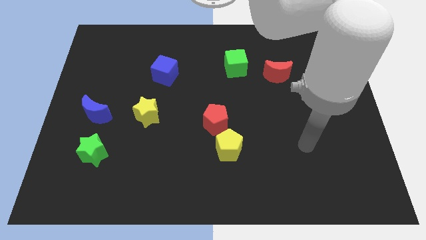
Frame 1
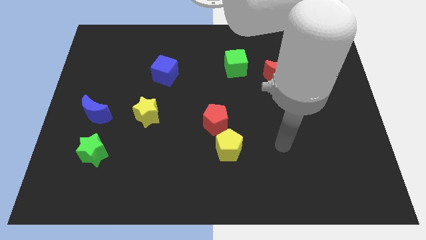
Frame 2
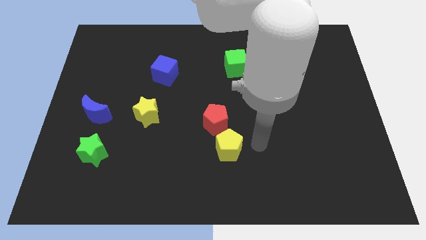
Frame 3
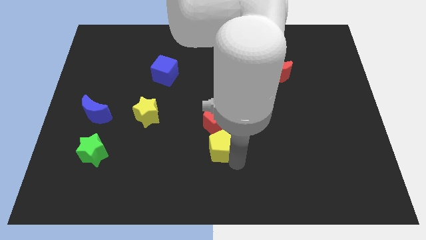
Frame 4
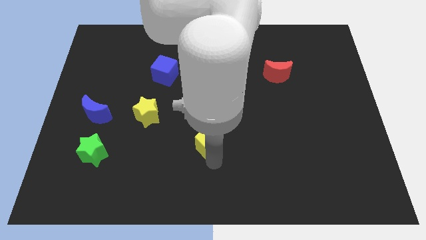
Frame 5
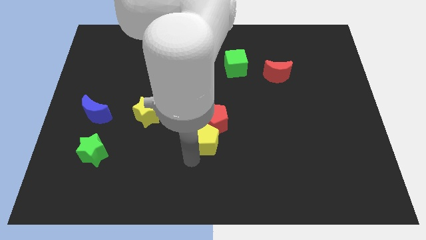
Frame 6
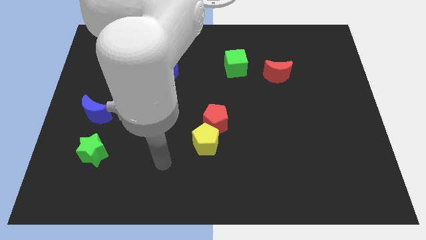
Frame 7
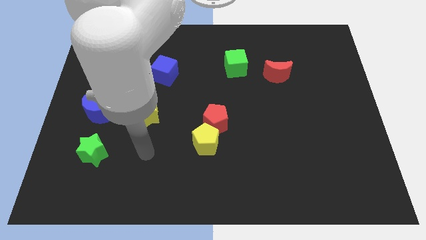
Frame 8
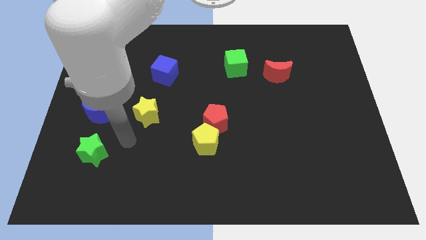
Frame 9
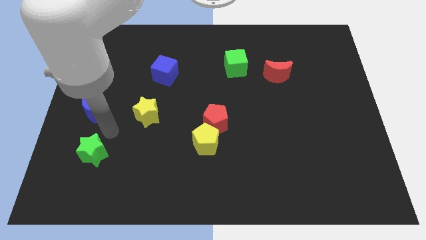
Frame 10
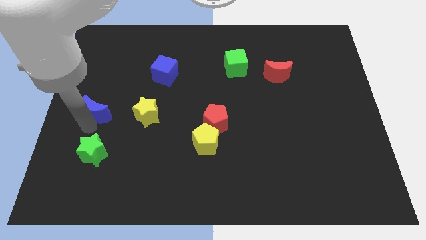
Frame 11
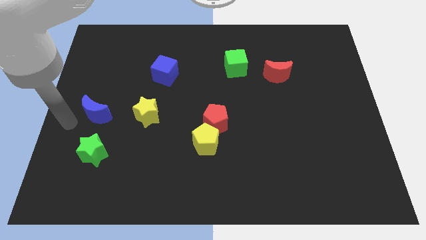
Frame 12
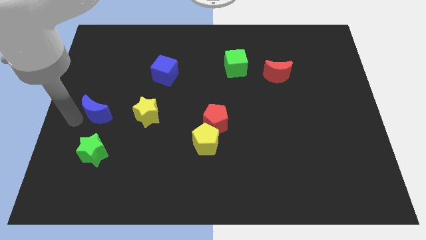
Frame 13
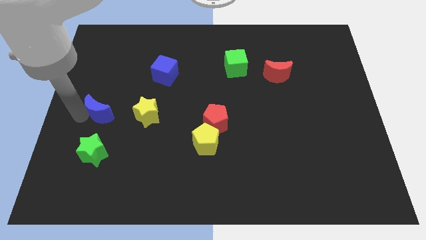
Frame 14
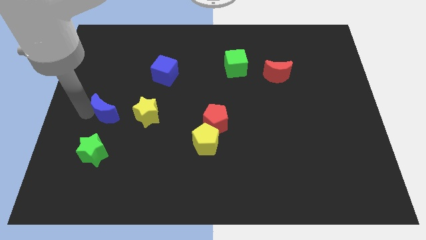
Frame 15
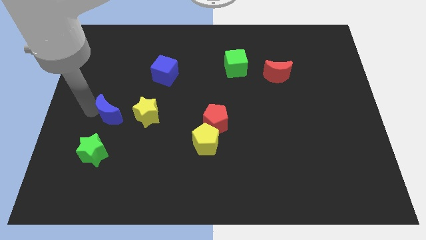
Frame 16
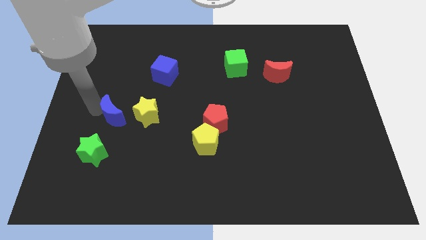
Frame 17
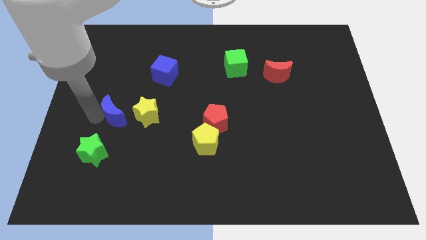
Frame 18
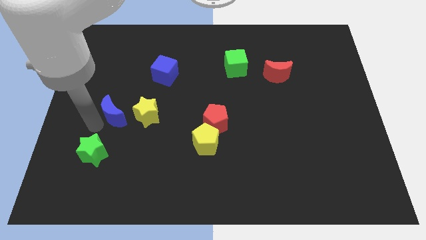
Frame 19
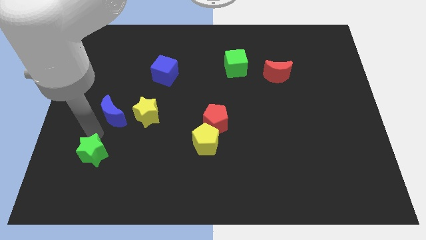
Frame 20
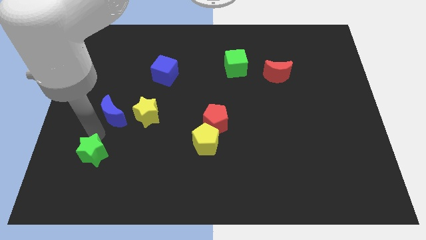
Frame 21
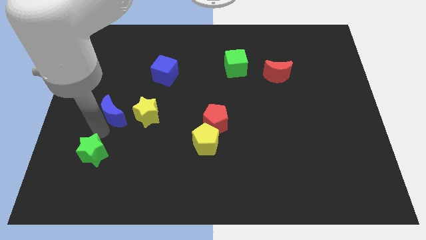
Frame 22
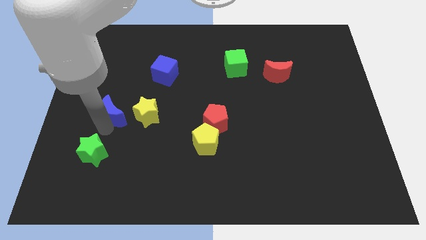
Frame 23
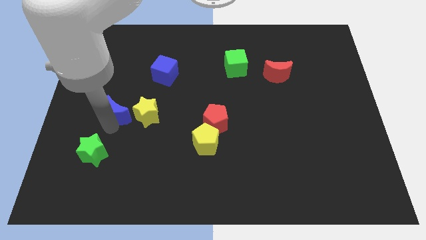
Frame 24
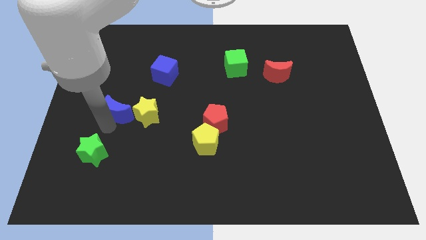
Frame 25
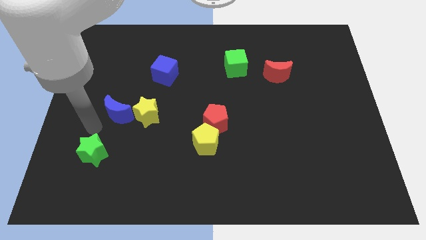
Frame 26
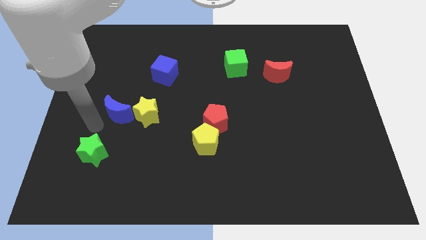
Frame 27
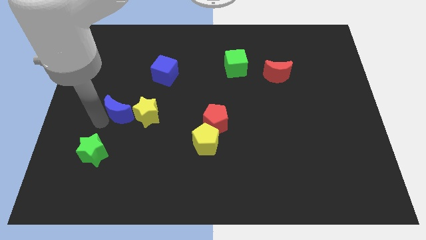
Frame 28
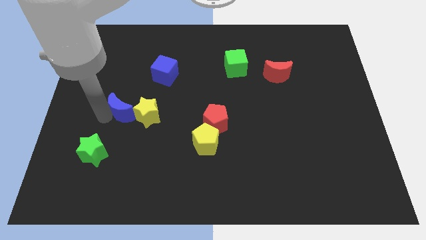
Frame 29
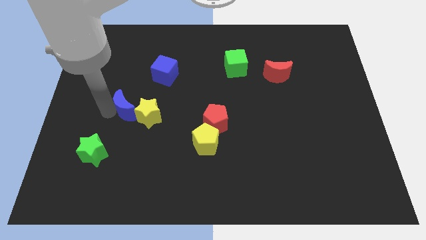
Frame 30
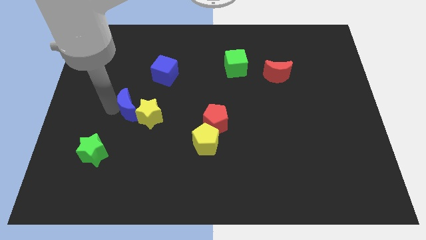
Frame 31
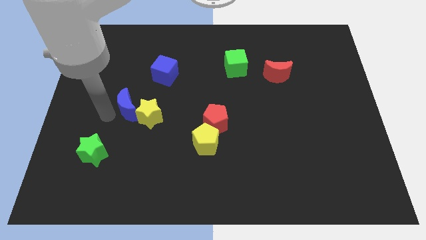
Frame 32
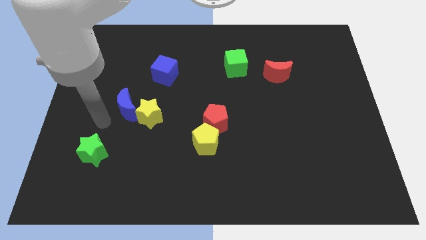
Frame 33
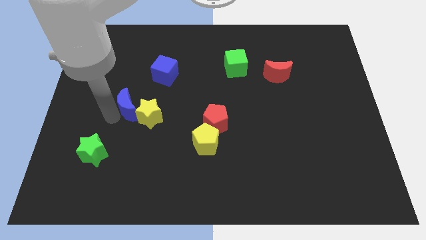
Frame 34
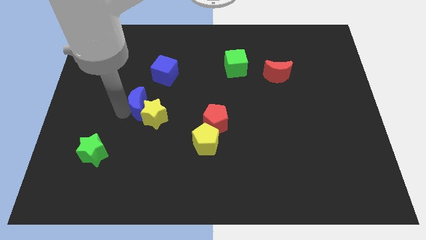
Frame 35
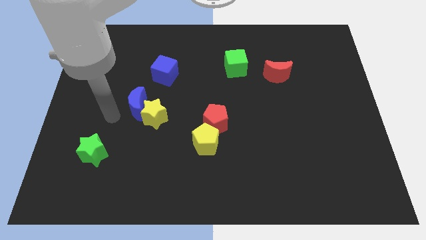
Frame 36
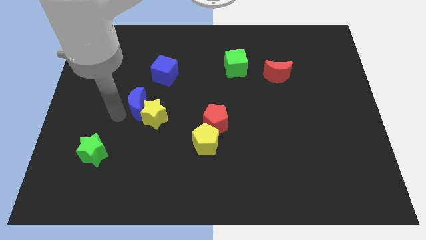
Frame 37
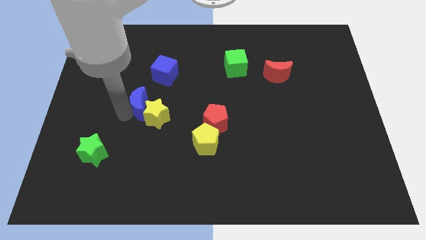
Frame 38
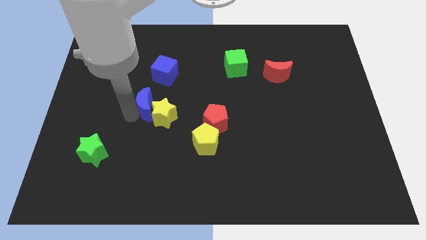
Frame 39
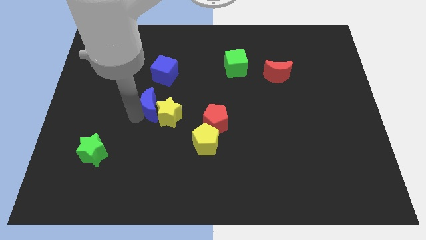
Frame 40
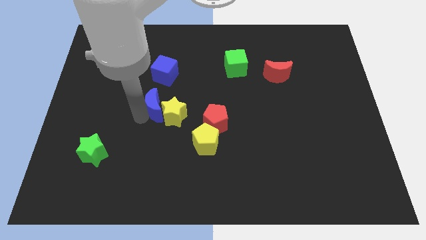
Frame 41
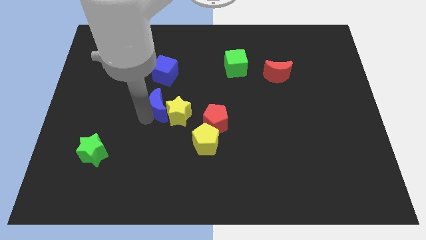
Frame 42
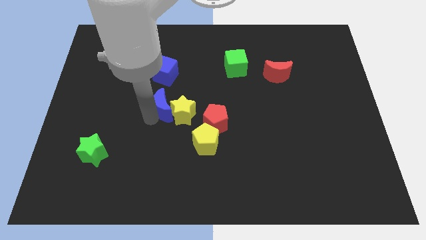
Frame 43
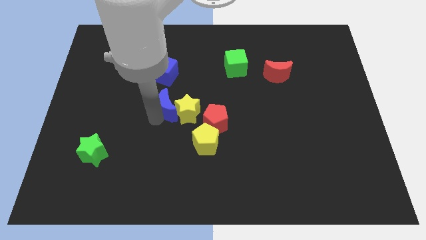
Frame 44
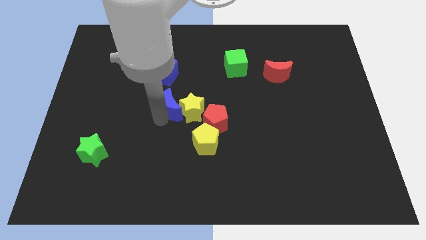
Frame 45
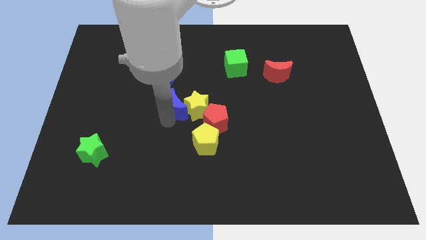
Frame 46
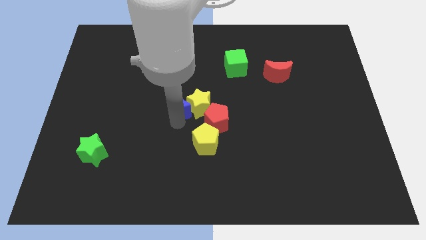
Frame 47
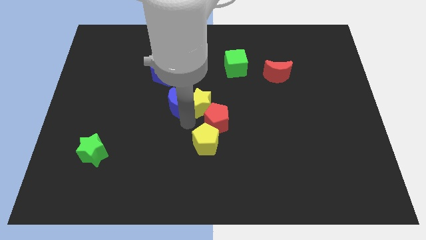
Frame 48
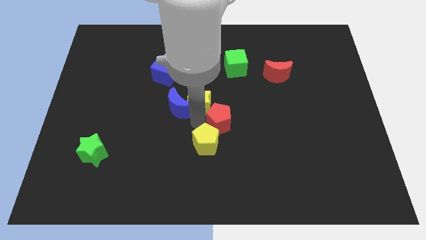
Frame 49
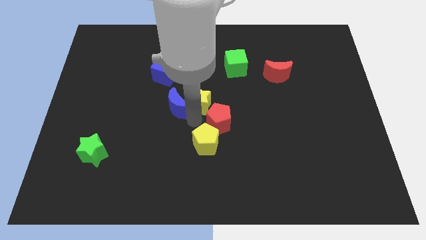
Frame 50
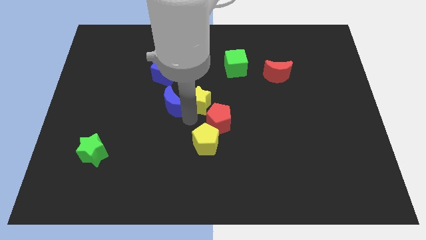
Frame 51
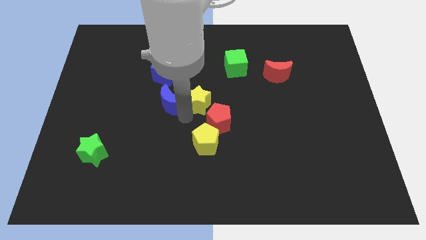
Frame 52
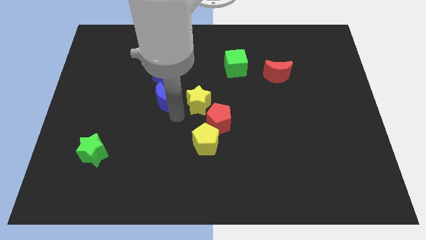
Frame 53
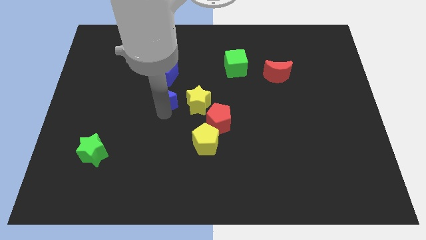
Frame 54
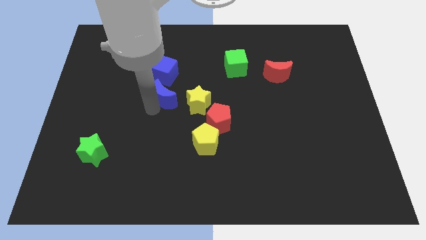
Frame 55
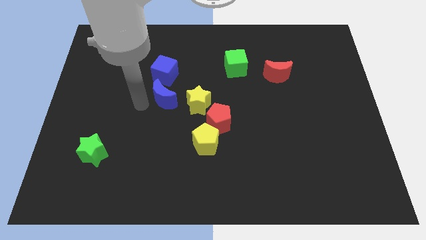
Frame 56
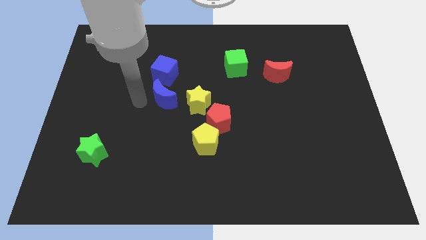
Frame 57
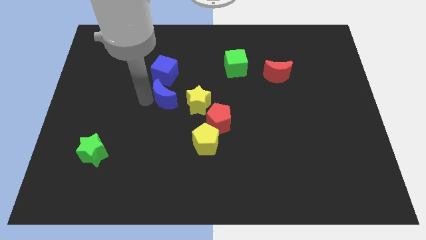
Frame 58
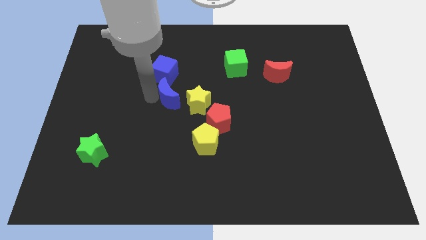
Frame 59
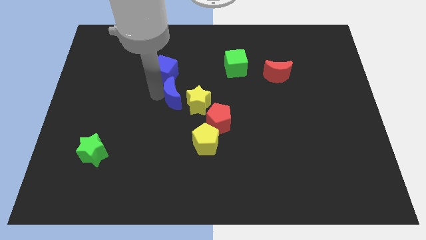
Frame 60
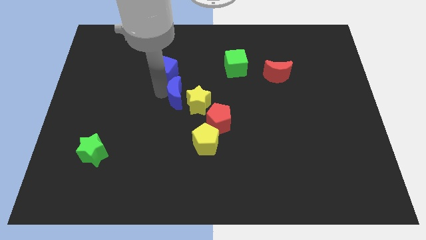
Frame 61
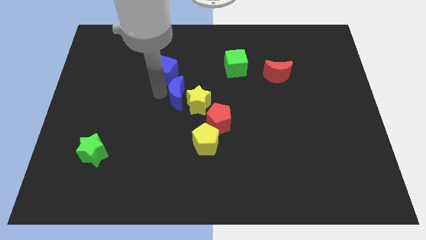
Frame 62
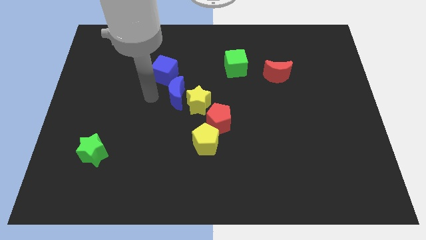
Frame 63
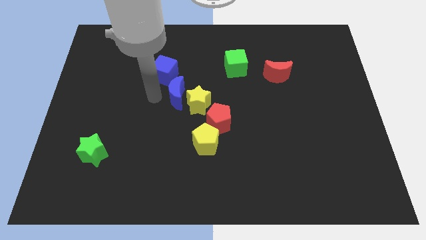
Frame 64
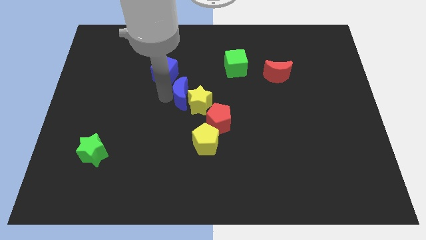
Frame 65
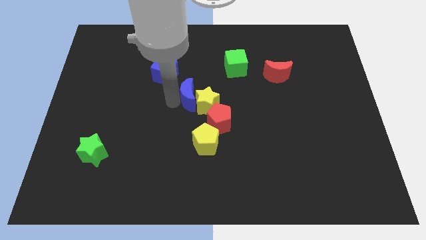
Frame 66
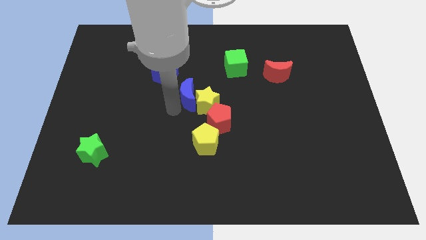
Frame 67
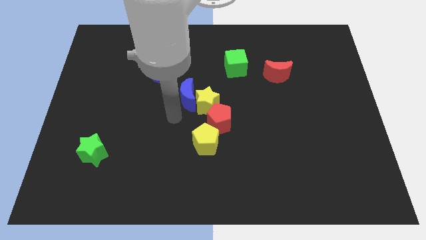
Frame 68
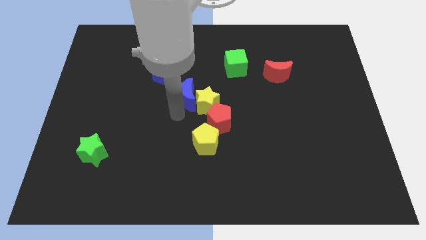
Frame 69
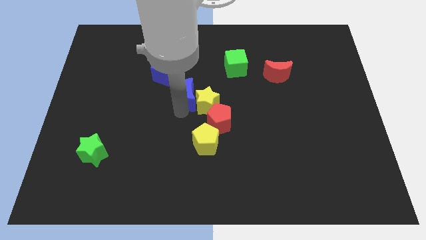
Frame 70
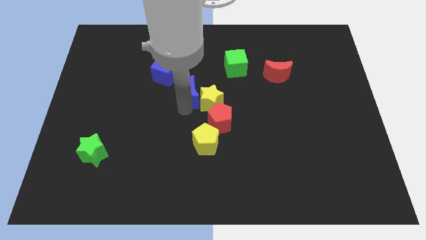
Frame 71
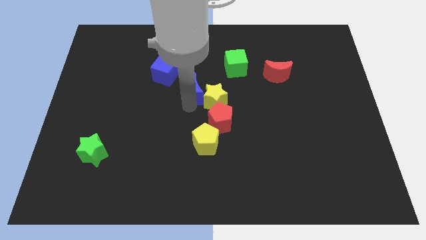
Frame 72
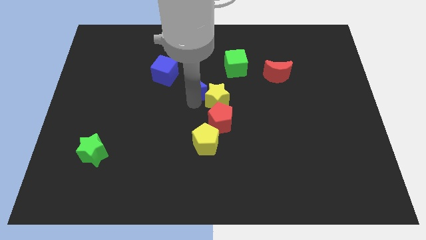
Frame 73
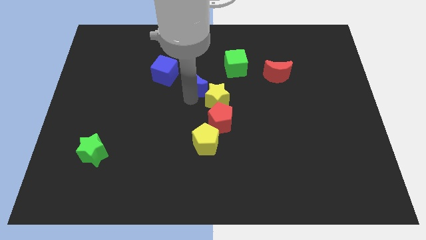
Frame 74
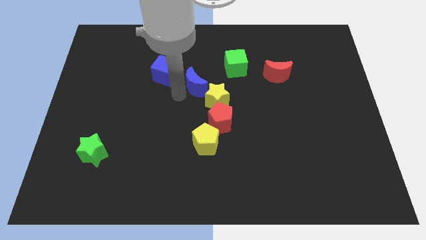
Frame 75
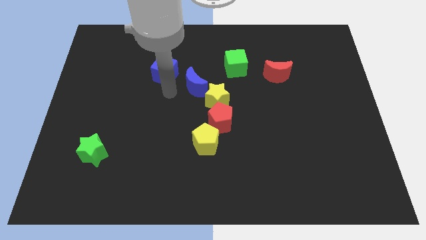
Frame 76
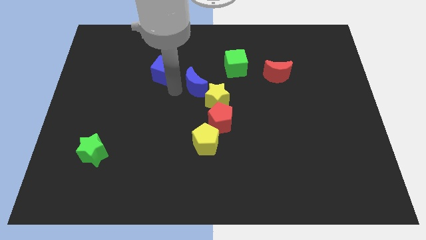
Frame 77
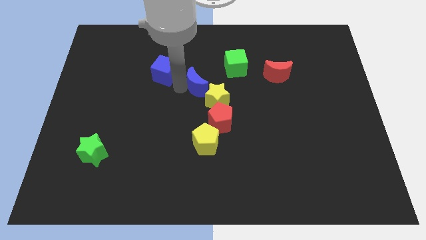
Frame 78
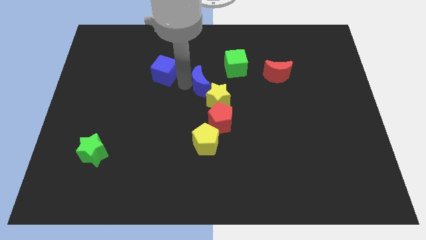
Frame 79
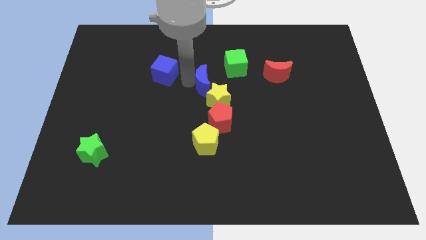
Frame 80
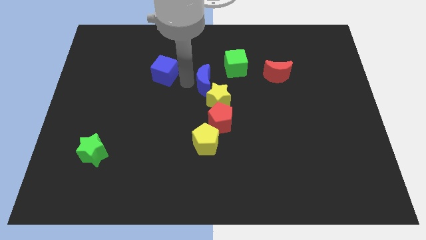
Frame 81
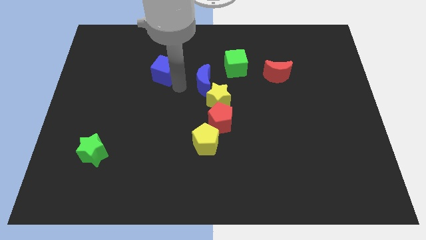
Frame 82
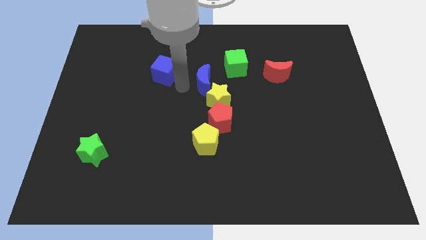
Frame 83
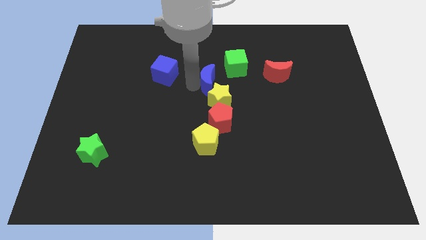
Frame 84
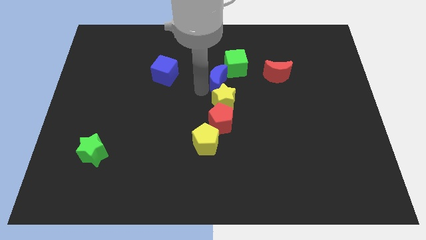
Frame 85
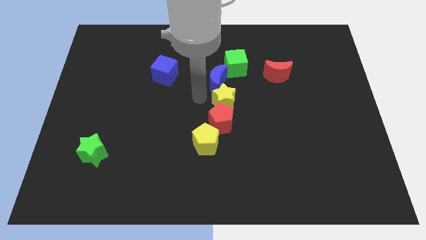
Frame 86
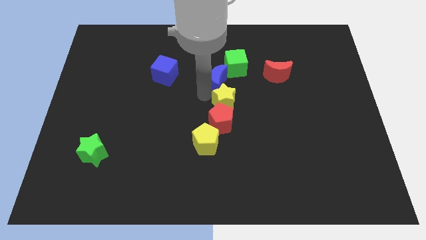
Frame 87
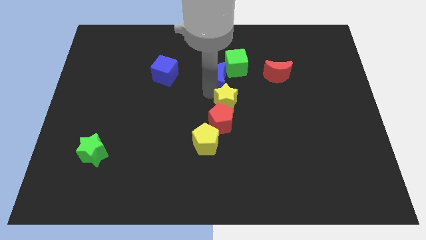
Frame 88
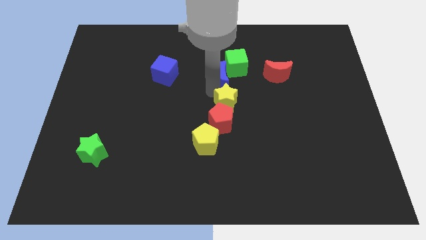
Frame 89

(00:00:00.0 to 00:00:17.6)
move the blue moon close to the green cube
